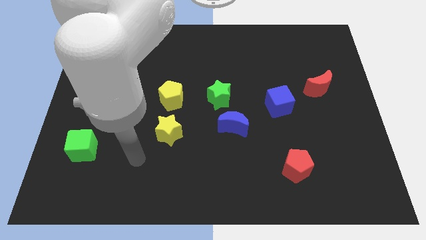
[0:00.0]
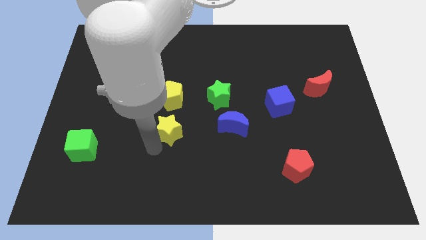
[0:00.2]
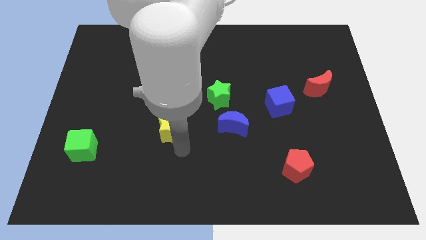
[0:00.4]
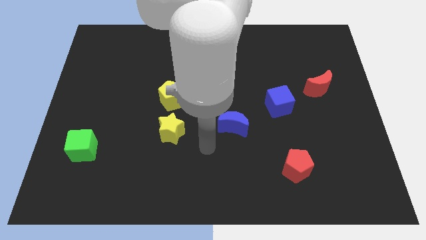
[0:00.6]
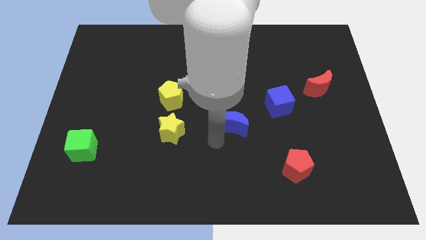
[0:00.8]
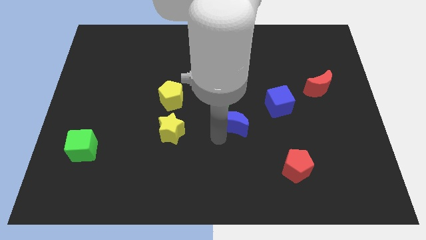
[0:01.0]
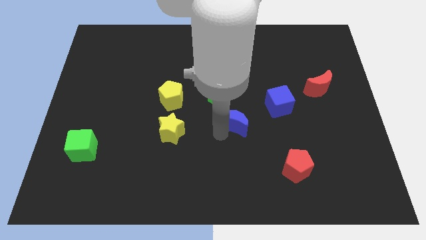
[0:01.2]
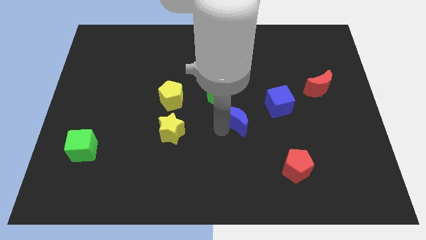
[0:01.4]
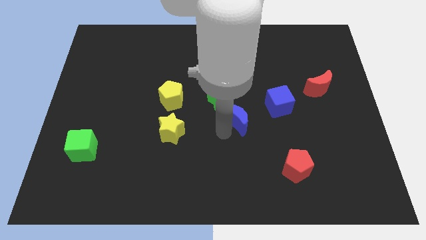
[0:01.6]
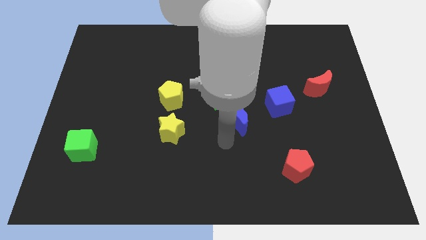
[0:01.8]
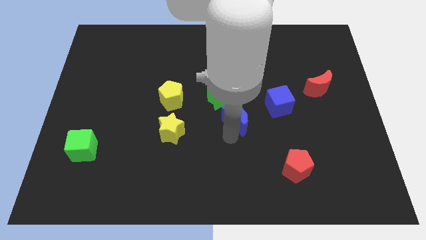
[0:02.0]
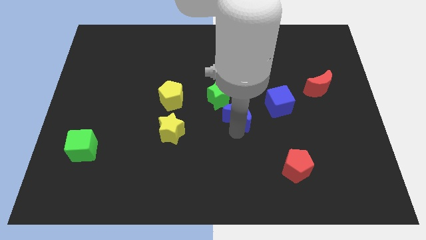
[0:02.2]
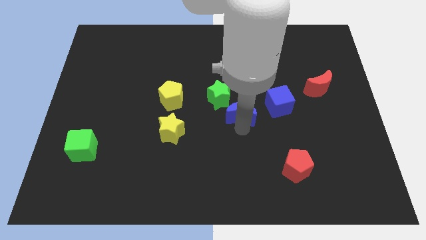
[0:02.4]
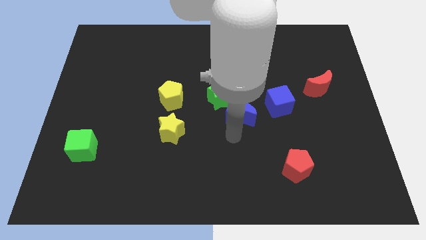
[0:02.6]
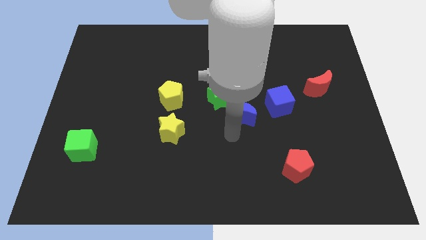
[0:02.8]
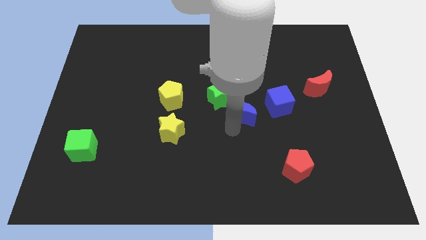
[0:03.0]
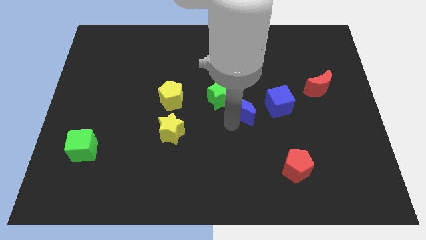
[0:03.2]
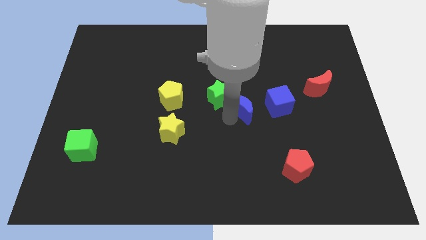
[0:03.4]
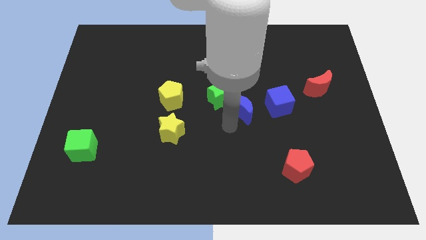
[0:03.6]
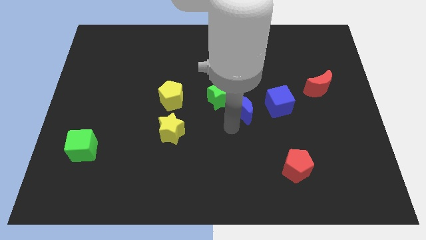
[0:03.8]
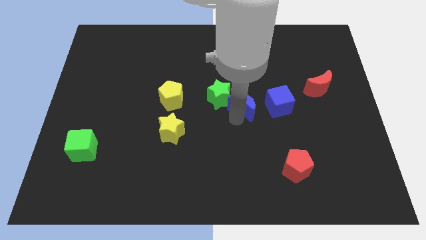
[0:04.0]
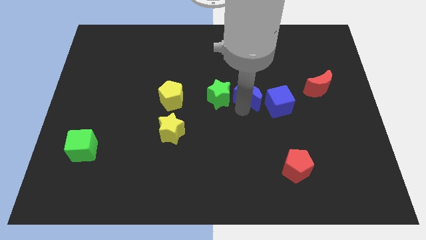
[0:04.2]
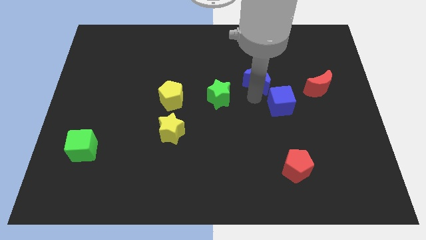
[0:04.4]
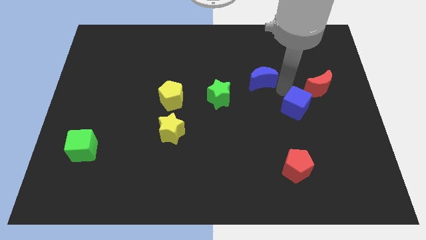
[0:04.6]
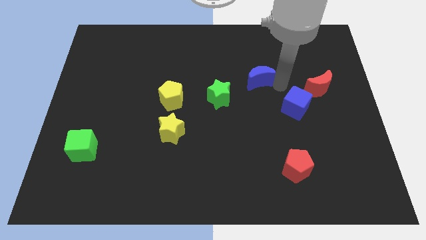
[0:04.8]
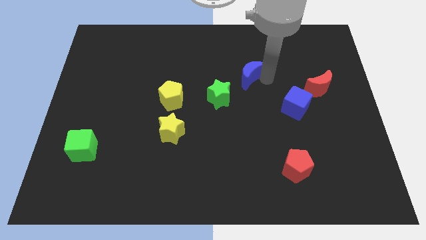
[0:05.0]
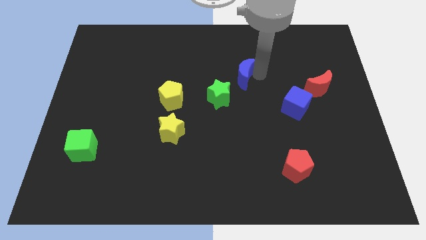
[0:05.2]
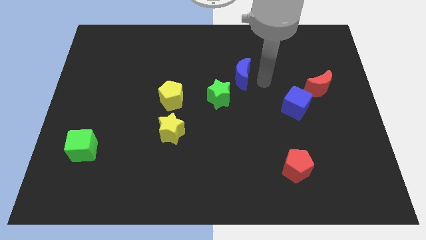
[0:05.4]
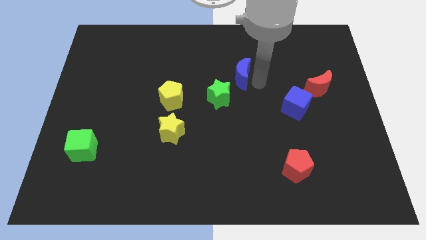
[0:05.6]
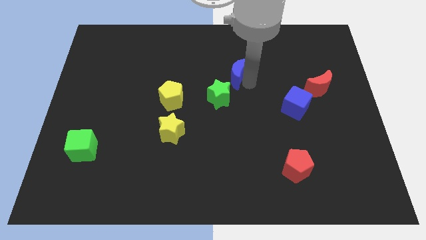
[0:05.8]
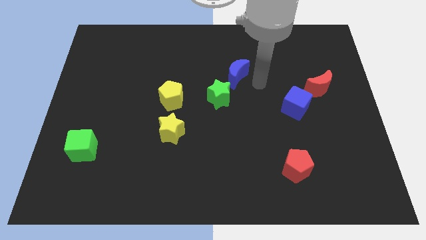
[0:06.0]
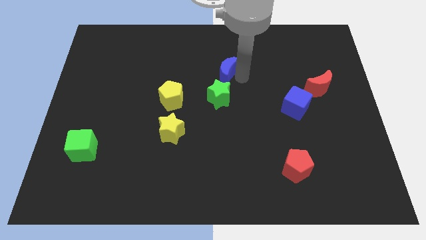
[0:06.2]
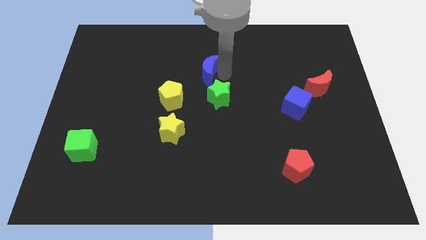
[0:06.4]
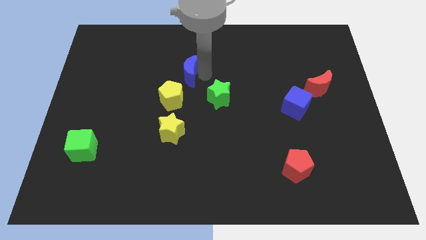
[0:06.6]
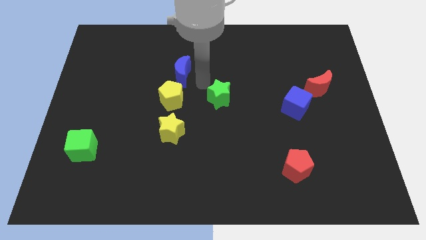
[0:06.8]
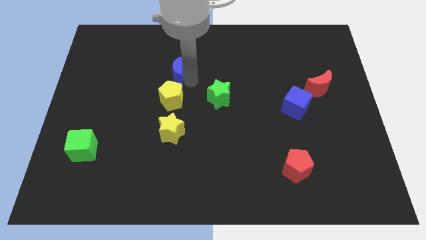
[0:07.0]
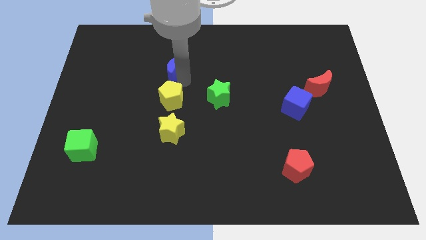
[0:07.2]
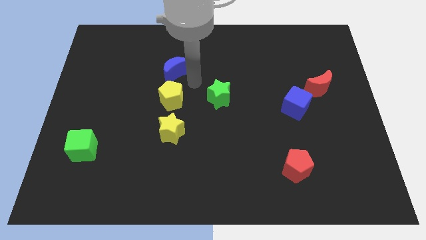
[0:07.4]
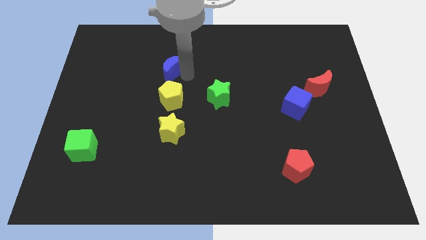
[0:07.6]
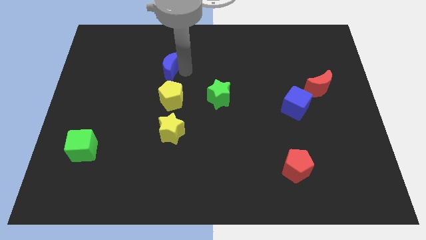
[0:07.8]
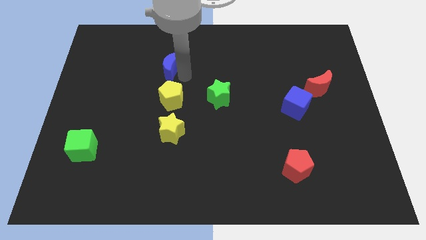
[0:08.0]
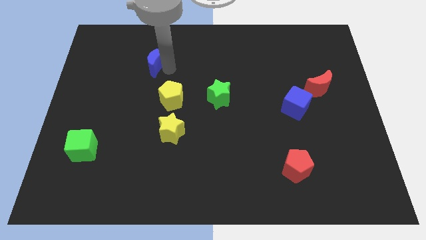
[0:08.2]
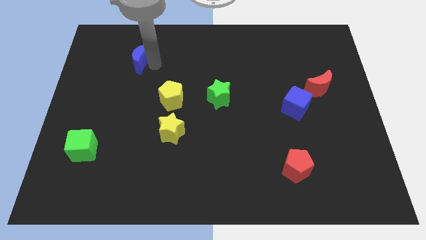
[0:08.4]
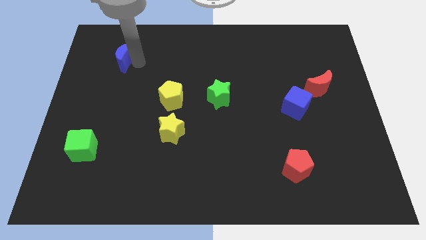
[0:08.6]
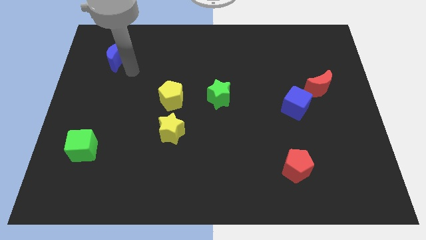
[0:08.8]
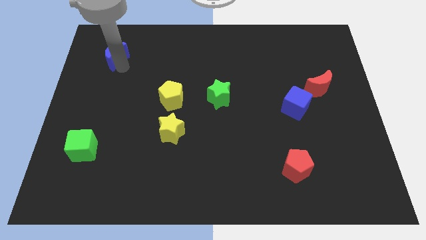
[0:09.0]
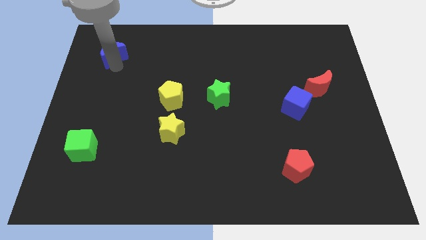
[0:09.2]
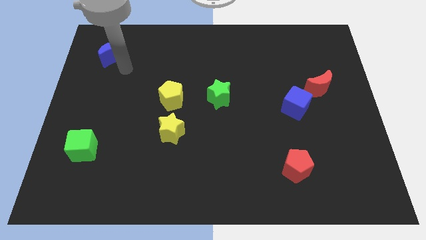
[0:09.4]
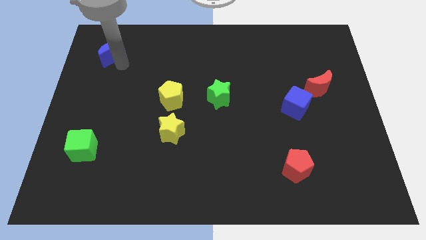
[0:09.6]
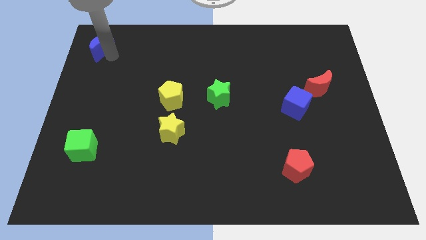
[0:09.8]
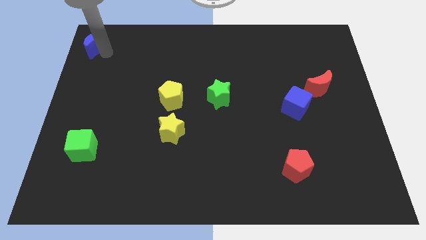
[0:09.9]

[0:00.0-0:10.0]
push the blue moon to the top left of the board
